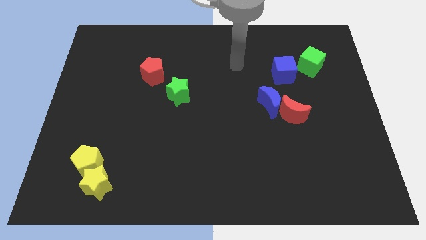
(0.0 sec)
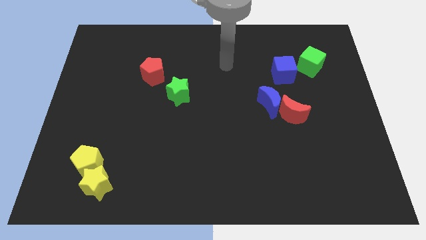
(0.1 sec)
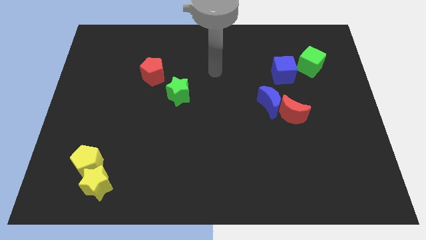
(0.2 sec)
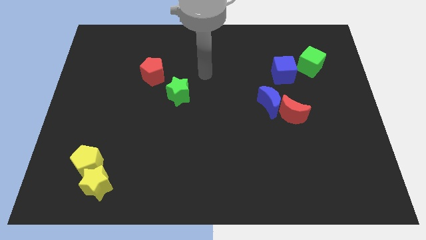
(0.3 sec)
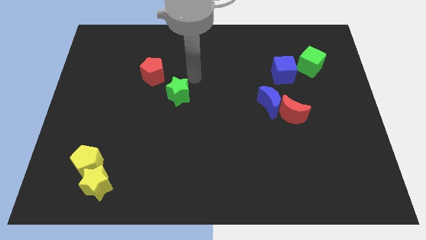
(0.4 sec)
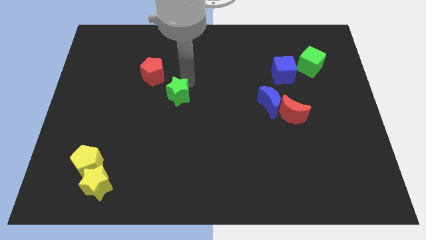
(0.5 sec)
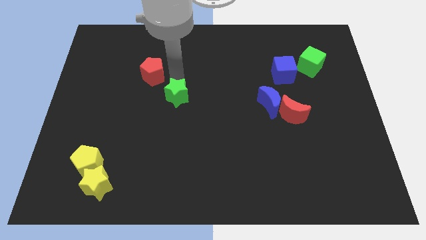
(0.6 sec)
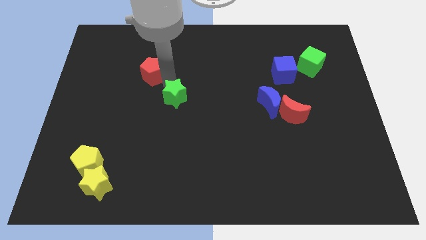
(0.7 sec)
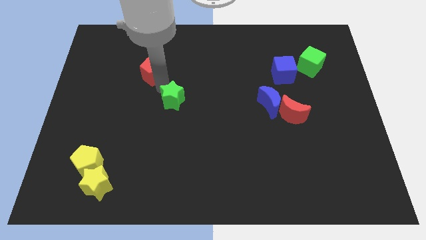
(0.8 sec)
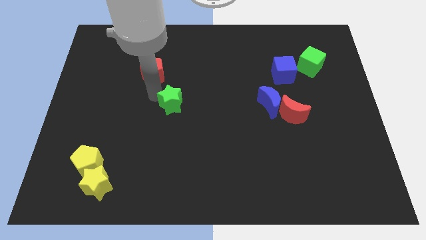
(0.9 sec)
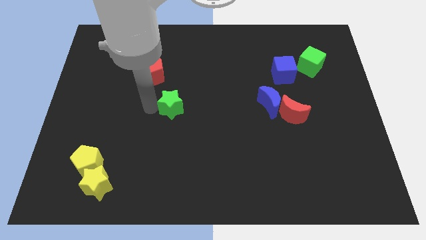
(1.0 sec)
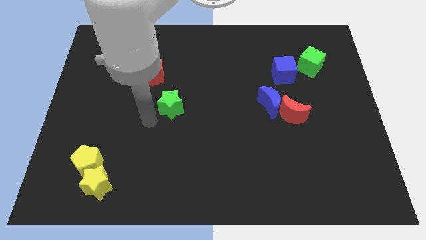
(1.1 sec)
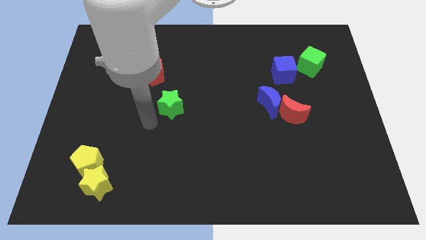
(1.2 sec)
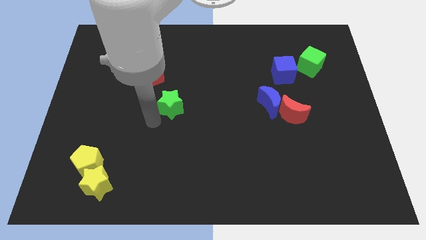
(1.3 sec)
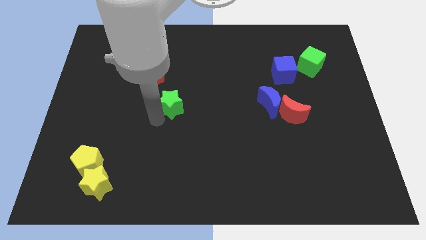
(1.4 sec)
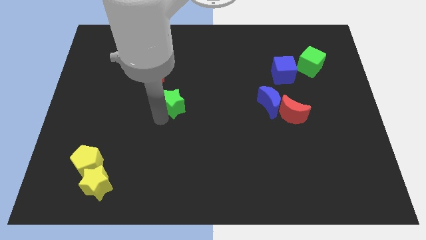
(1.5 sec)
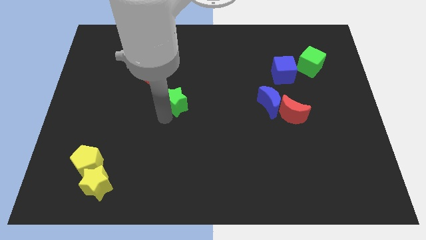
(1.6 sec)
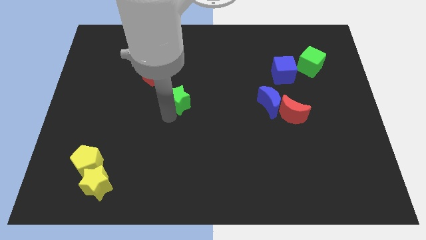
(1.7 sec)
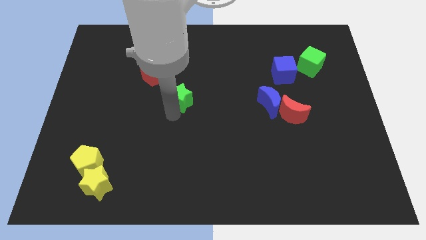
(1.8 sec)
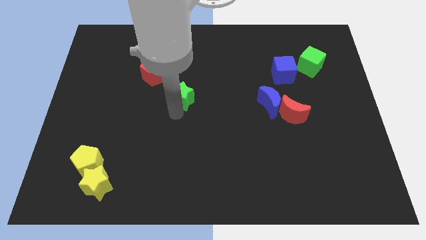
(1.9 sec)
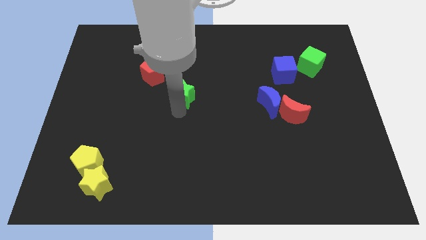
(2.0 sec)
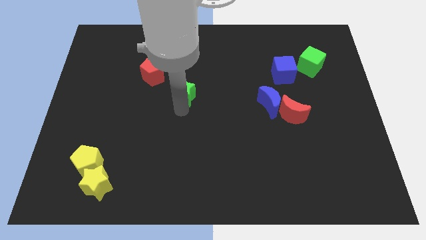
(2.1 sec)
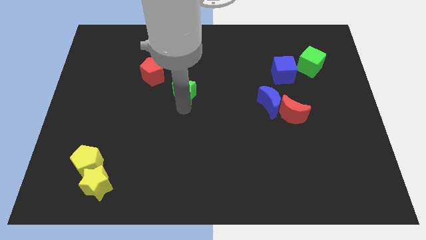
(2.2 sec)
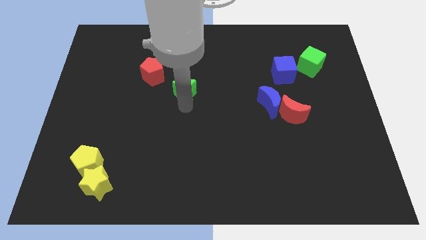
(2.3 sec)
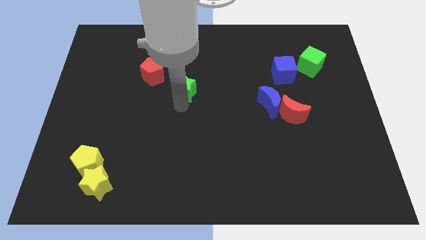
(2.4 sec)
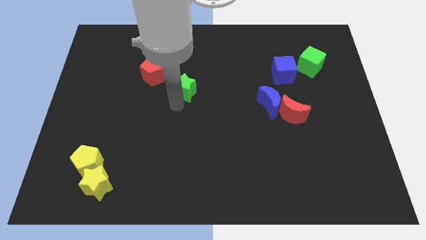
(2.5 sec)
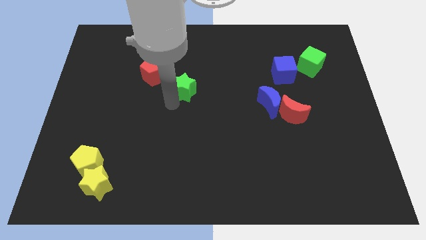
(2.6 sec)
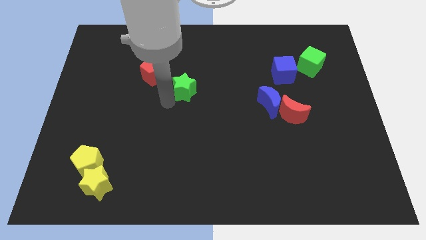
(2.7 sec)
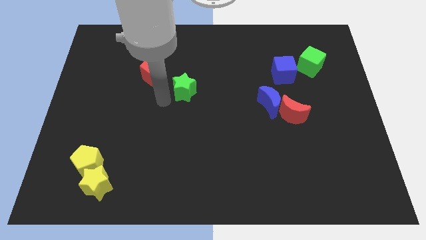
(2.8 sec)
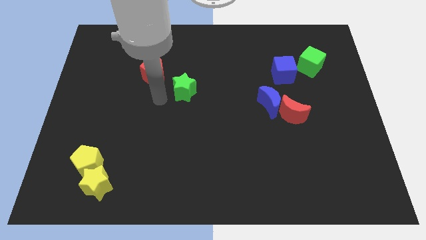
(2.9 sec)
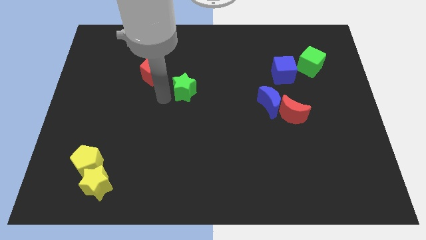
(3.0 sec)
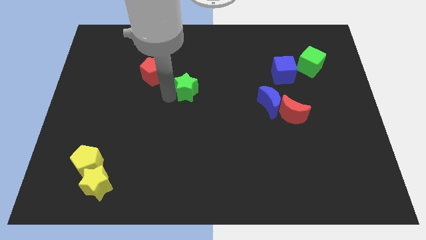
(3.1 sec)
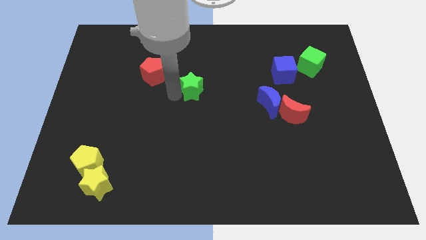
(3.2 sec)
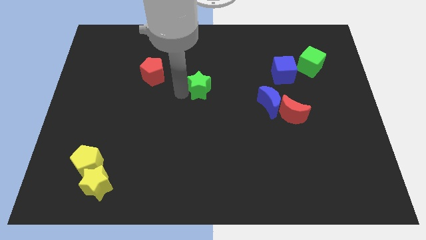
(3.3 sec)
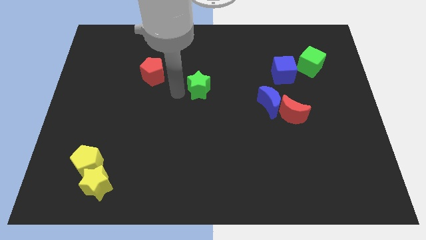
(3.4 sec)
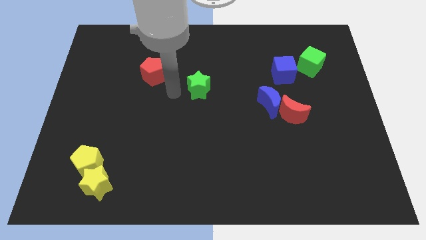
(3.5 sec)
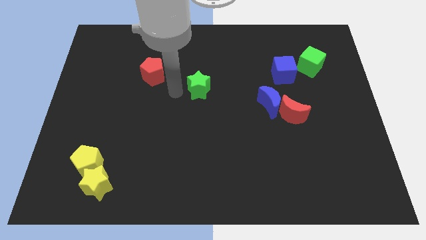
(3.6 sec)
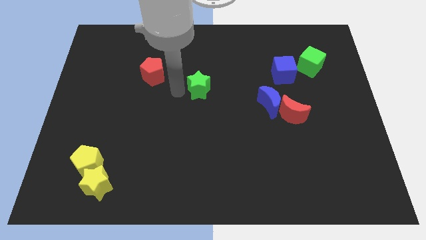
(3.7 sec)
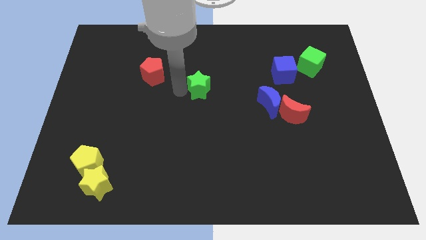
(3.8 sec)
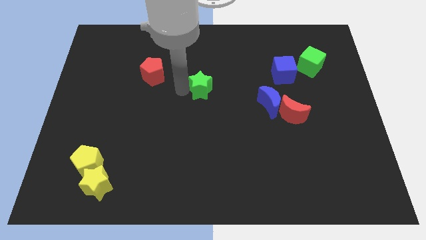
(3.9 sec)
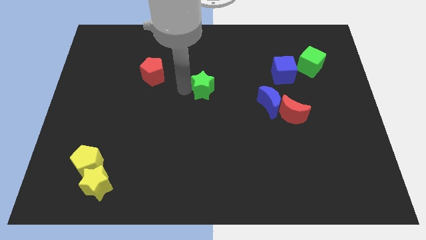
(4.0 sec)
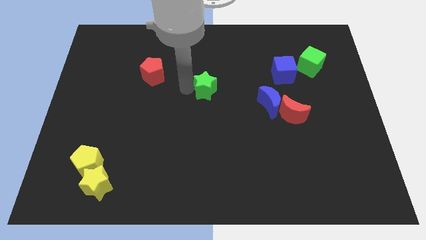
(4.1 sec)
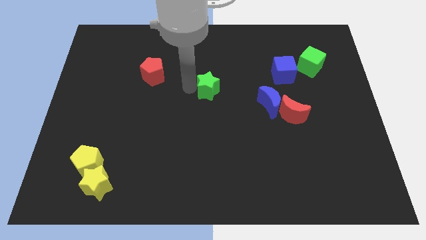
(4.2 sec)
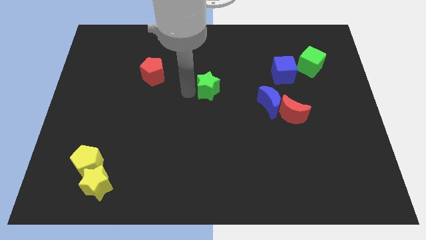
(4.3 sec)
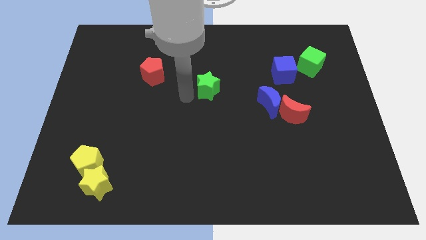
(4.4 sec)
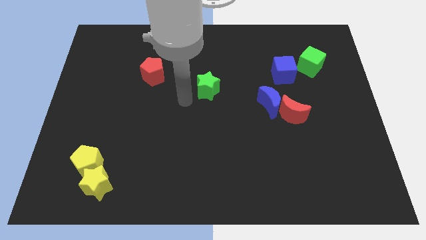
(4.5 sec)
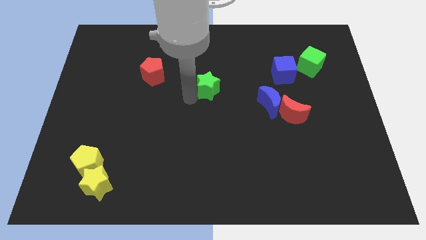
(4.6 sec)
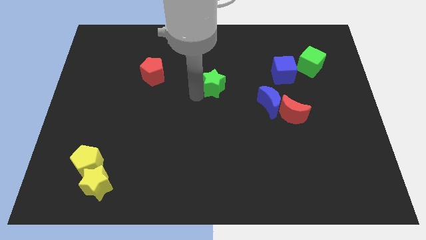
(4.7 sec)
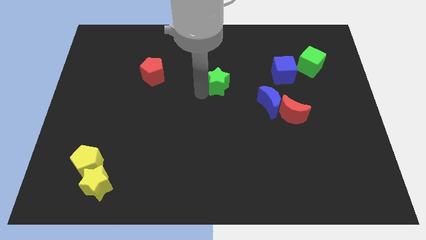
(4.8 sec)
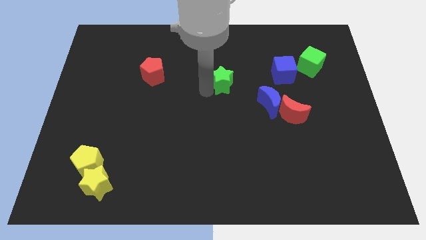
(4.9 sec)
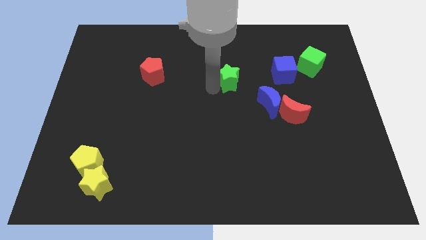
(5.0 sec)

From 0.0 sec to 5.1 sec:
slide the green star to the left of the blue cube

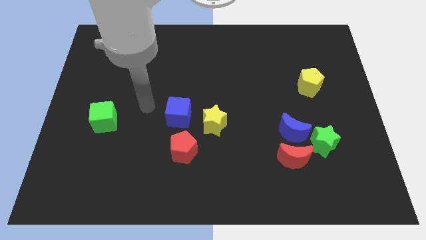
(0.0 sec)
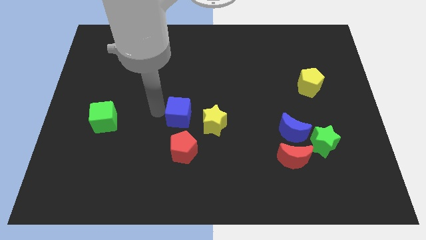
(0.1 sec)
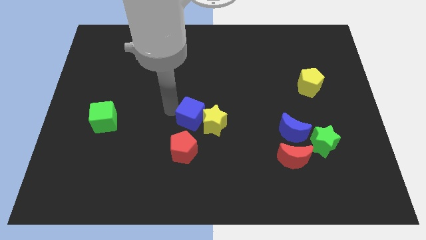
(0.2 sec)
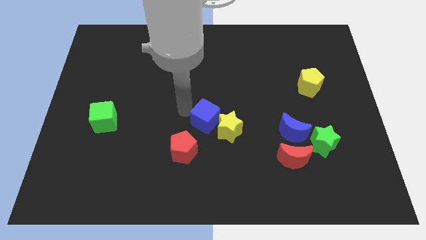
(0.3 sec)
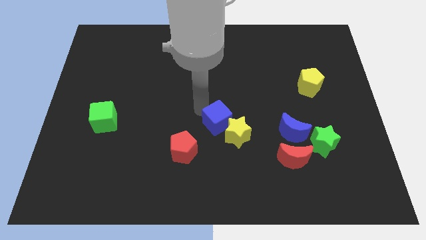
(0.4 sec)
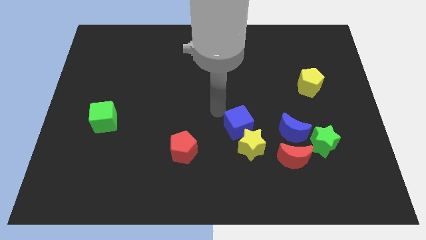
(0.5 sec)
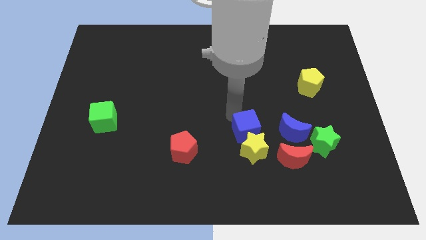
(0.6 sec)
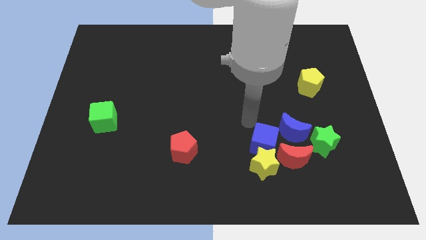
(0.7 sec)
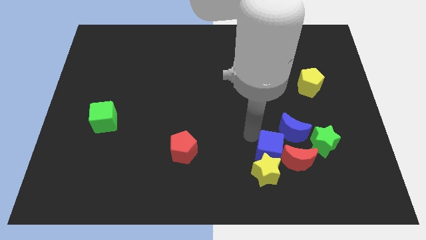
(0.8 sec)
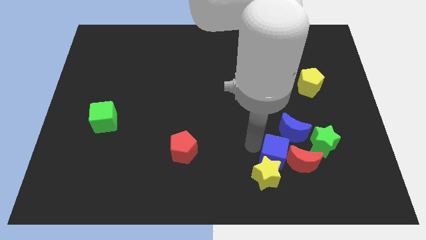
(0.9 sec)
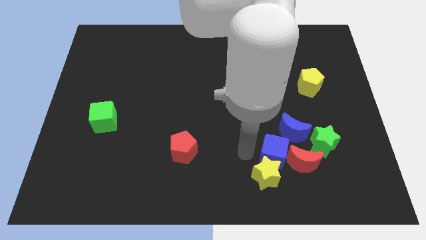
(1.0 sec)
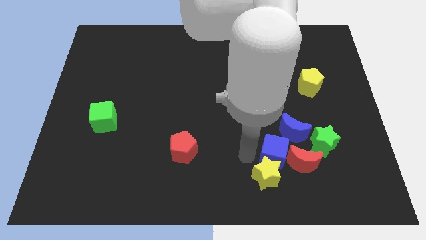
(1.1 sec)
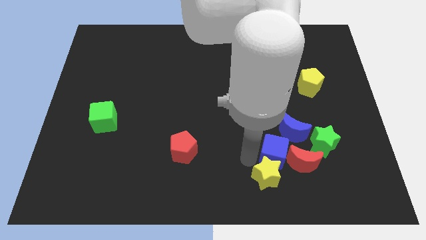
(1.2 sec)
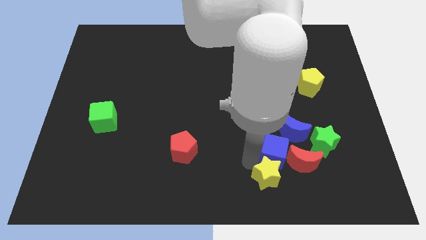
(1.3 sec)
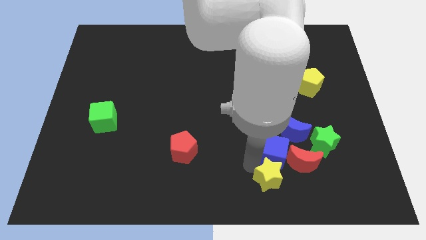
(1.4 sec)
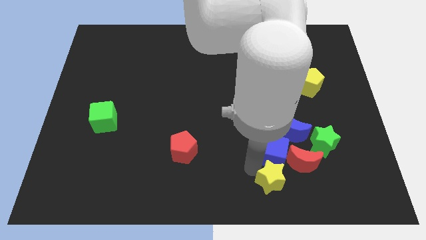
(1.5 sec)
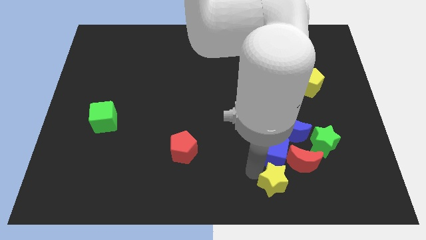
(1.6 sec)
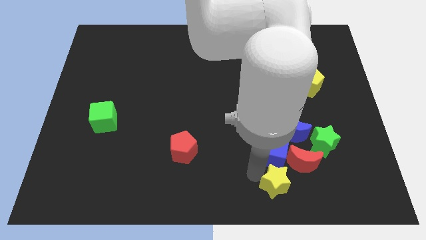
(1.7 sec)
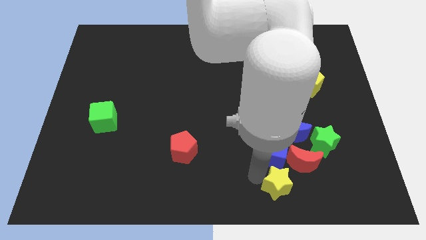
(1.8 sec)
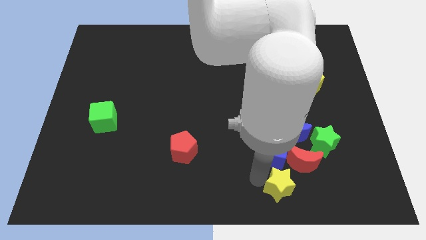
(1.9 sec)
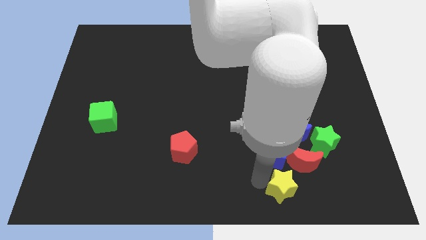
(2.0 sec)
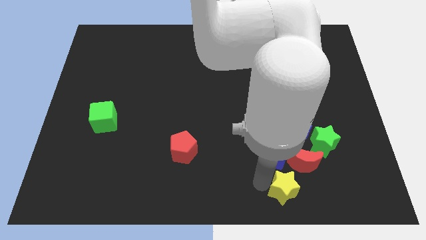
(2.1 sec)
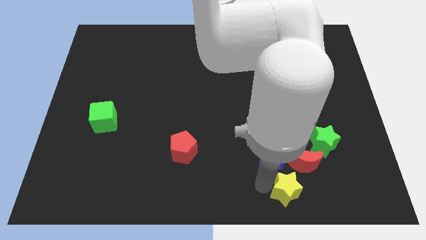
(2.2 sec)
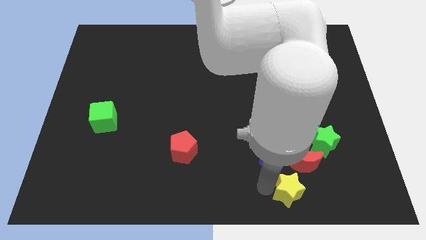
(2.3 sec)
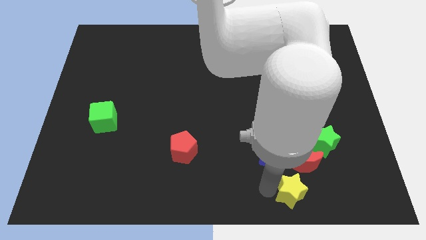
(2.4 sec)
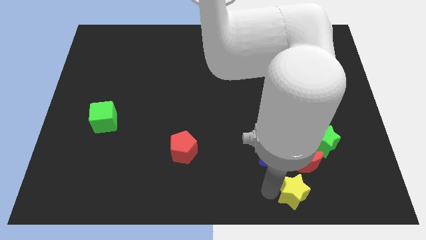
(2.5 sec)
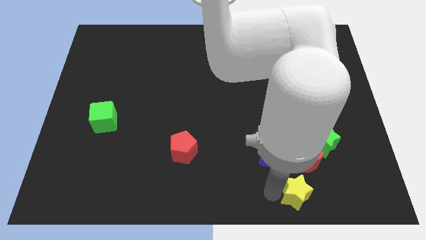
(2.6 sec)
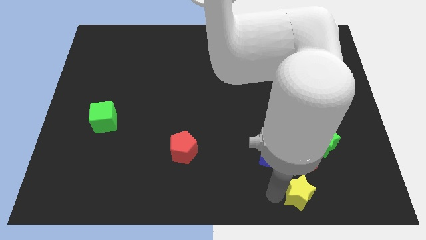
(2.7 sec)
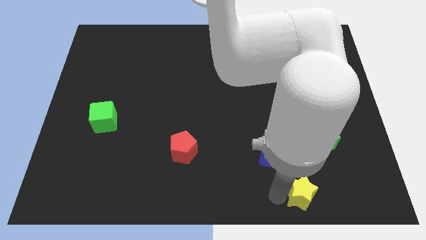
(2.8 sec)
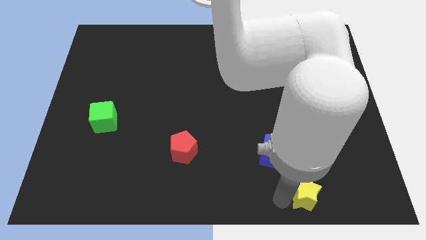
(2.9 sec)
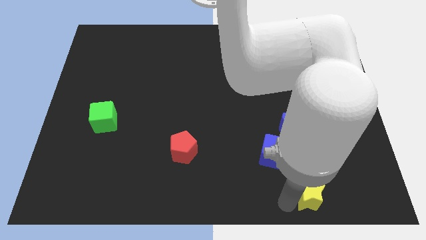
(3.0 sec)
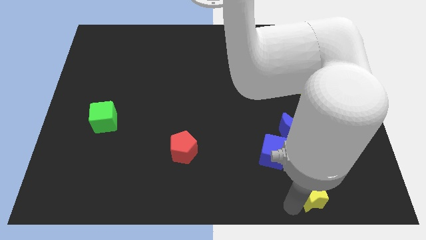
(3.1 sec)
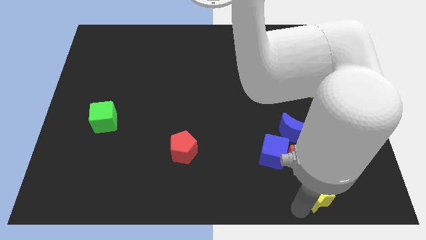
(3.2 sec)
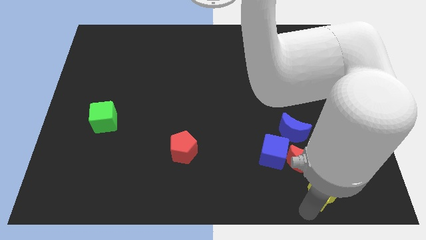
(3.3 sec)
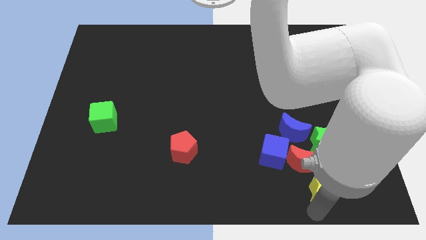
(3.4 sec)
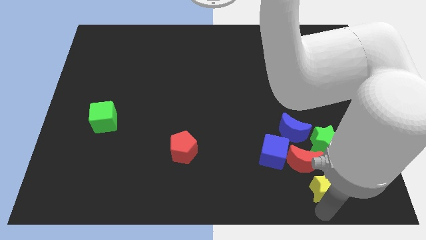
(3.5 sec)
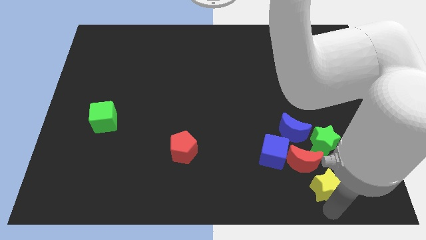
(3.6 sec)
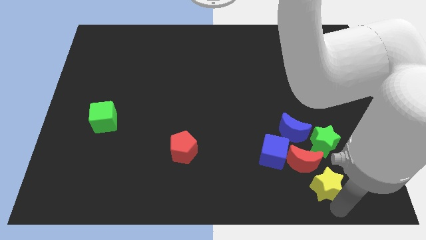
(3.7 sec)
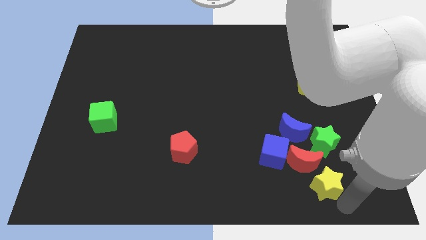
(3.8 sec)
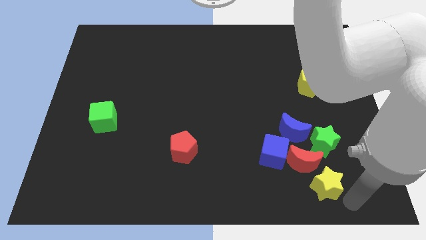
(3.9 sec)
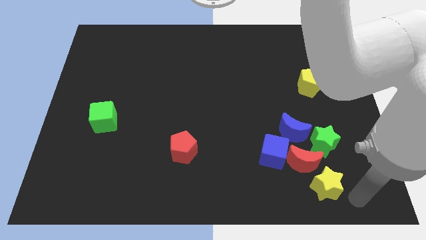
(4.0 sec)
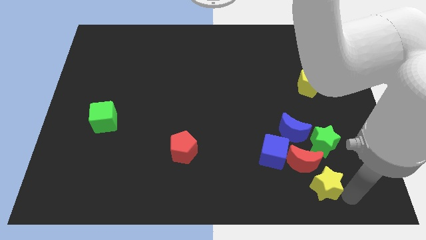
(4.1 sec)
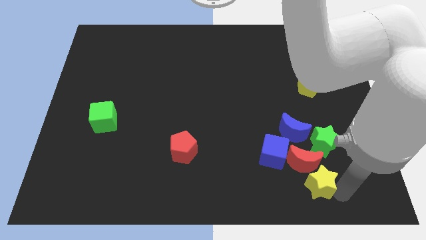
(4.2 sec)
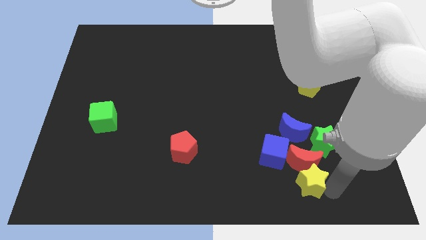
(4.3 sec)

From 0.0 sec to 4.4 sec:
put the yellow star to the bottom left side of the green star
